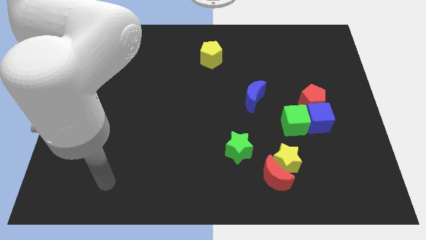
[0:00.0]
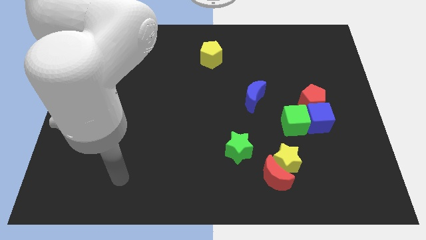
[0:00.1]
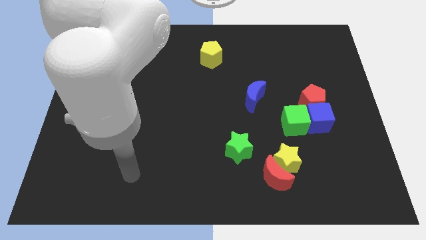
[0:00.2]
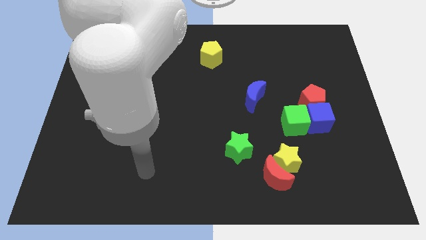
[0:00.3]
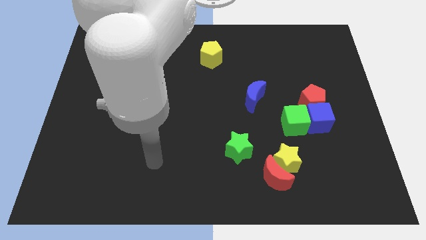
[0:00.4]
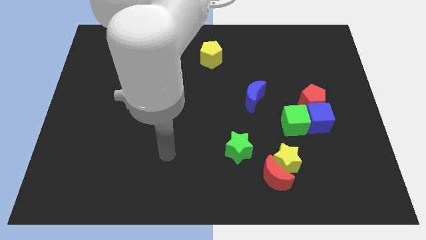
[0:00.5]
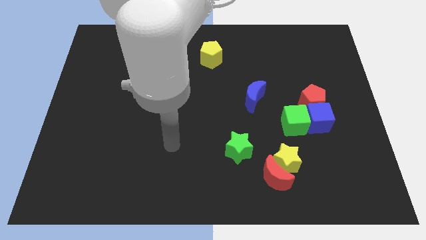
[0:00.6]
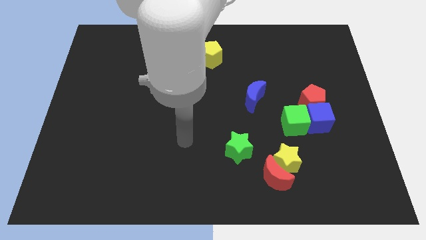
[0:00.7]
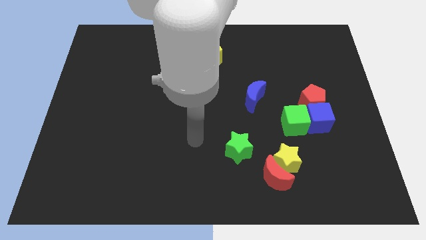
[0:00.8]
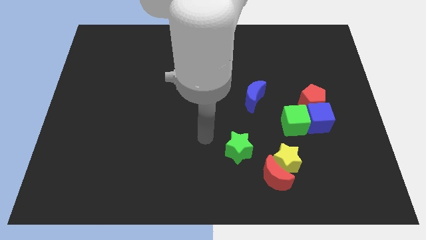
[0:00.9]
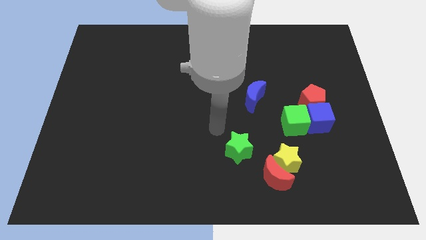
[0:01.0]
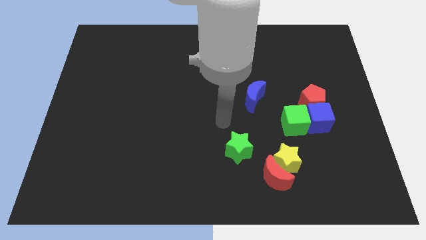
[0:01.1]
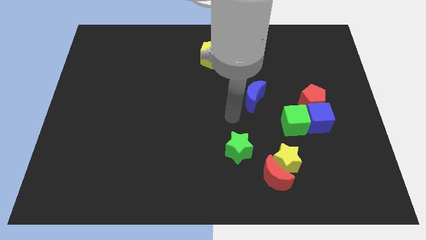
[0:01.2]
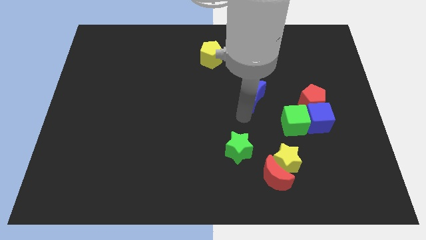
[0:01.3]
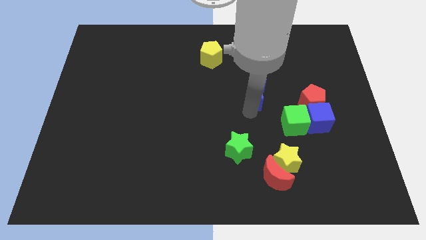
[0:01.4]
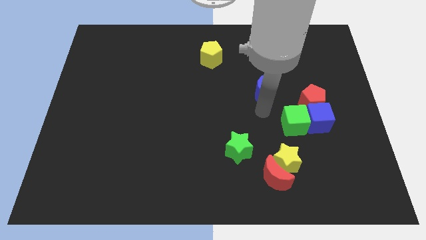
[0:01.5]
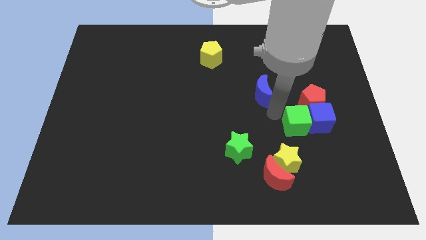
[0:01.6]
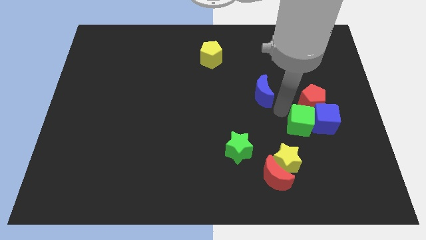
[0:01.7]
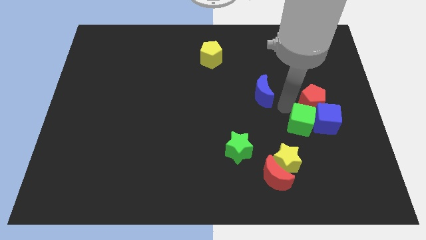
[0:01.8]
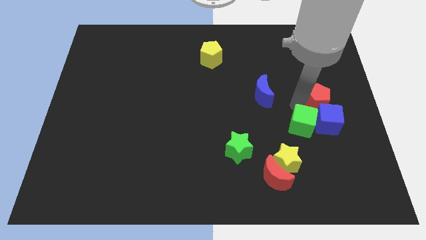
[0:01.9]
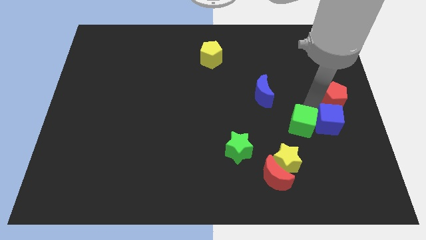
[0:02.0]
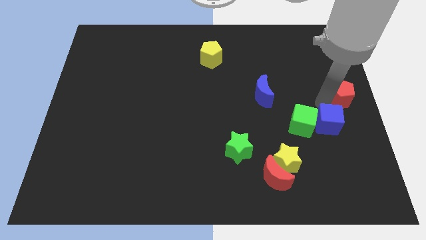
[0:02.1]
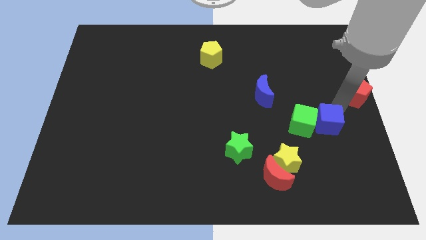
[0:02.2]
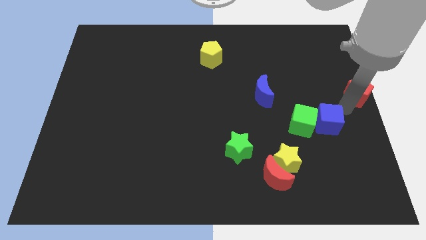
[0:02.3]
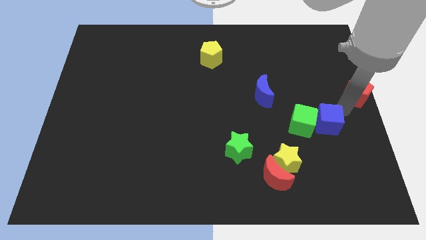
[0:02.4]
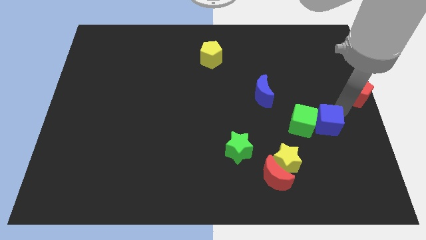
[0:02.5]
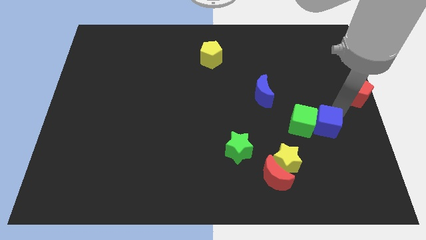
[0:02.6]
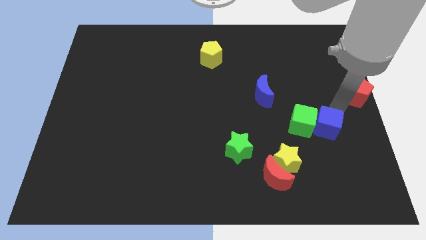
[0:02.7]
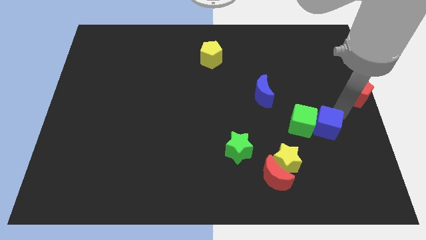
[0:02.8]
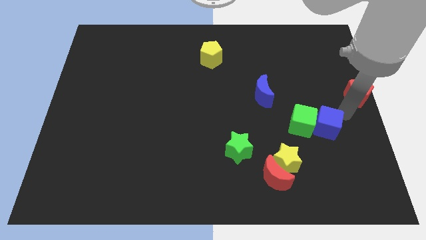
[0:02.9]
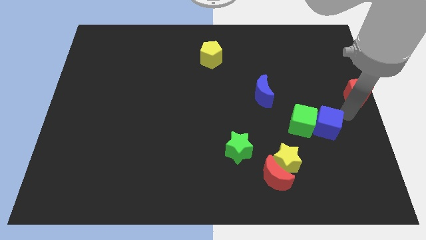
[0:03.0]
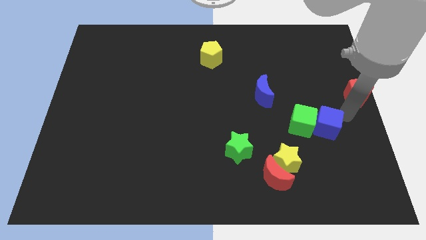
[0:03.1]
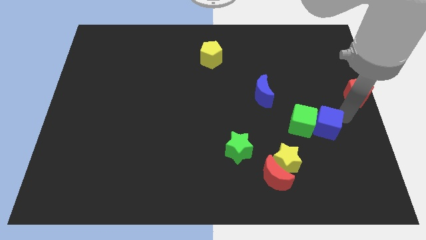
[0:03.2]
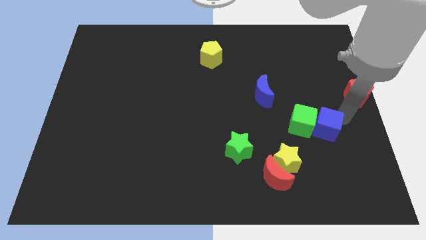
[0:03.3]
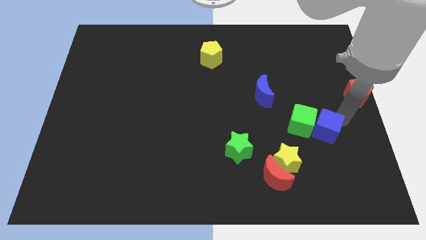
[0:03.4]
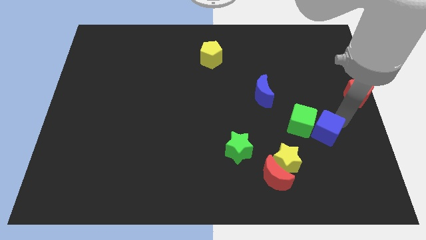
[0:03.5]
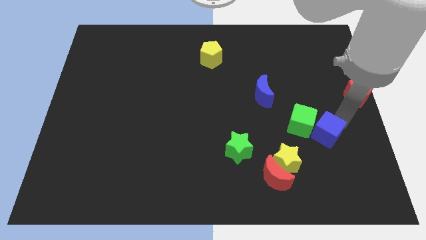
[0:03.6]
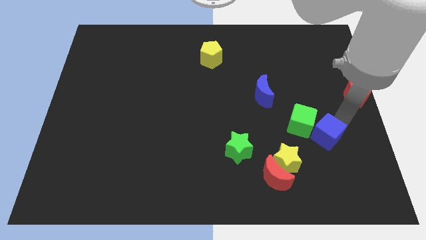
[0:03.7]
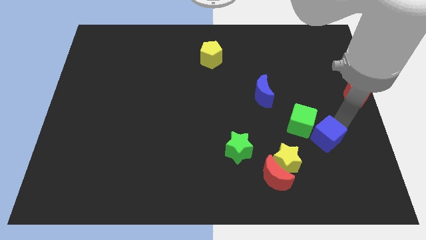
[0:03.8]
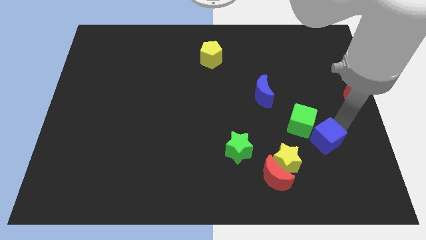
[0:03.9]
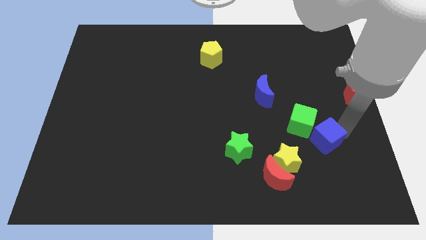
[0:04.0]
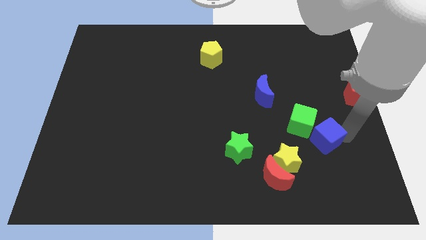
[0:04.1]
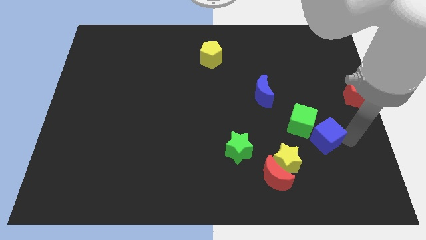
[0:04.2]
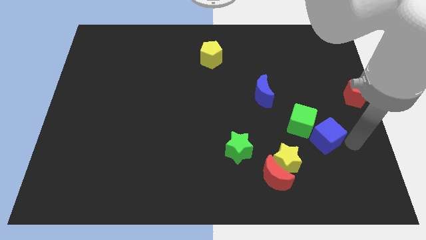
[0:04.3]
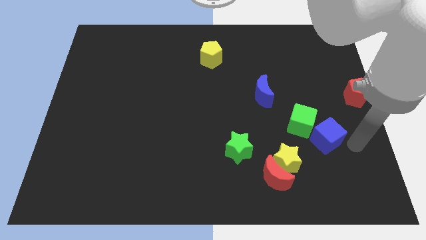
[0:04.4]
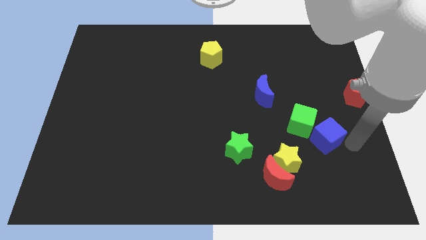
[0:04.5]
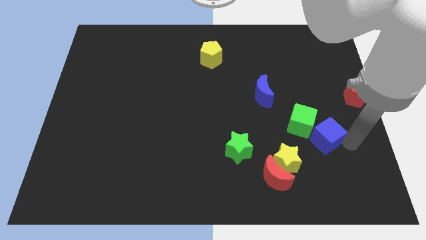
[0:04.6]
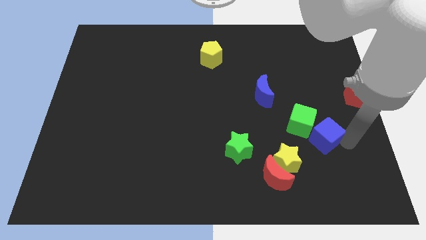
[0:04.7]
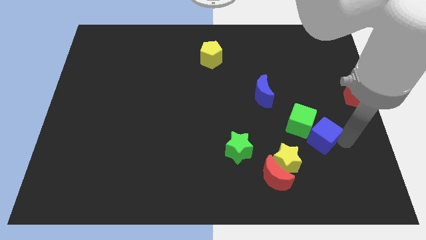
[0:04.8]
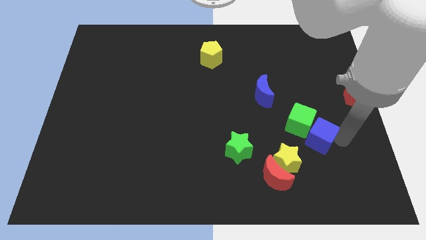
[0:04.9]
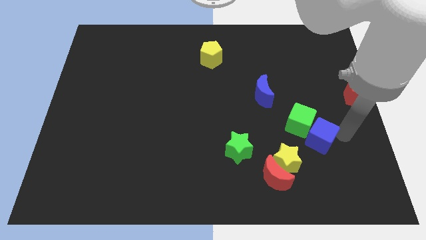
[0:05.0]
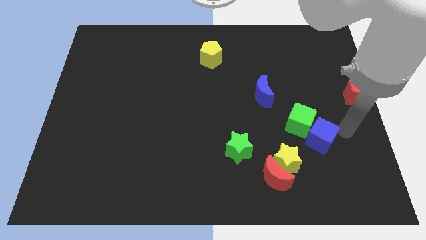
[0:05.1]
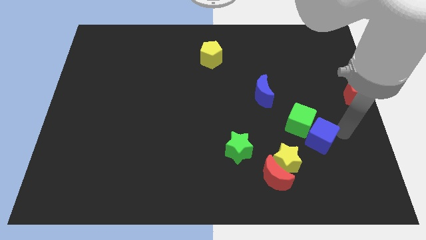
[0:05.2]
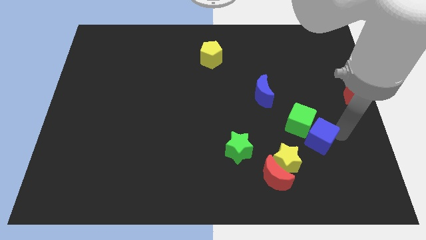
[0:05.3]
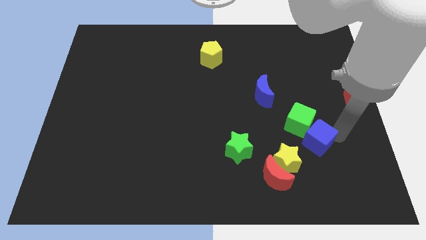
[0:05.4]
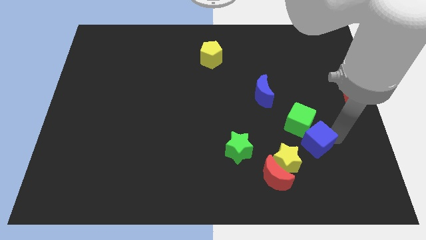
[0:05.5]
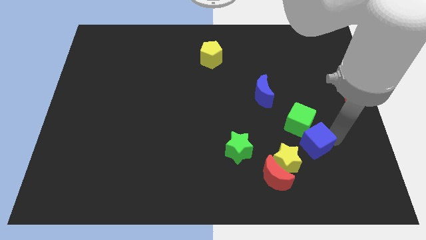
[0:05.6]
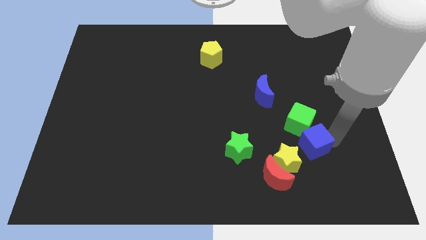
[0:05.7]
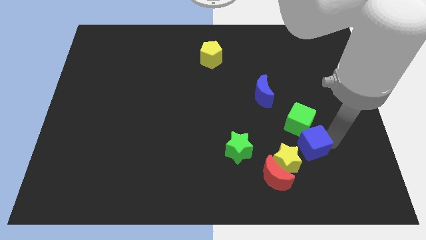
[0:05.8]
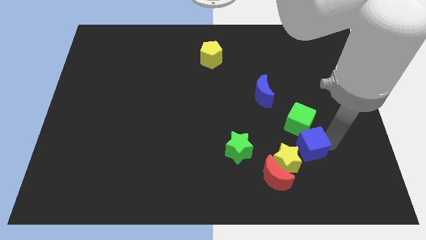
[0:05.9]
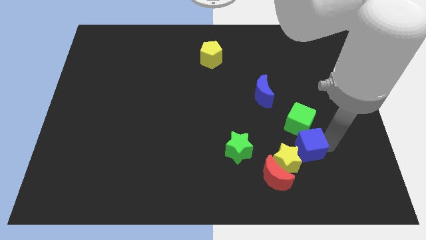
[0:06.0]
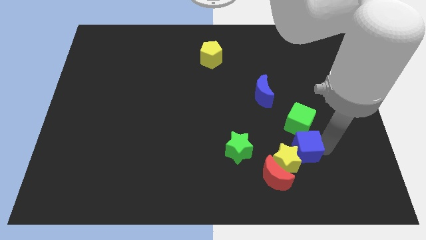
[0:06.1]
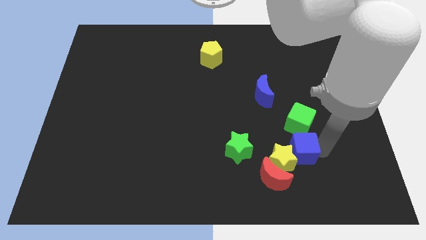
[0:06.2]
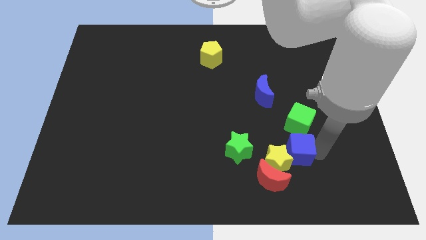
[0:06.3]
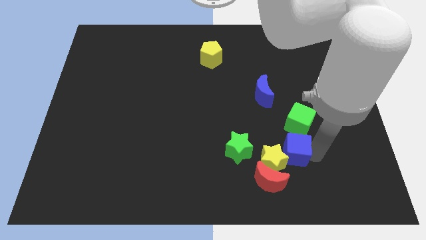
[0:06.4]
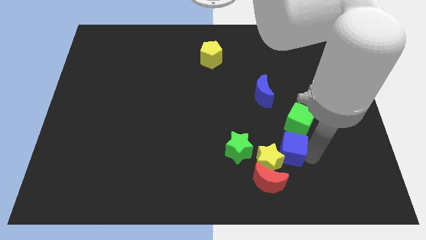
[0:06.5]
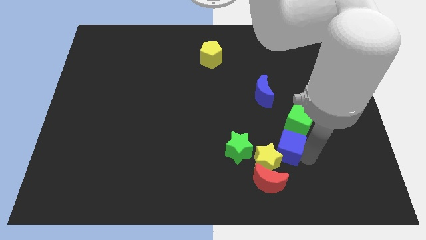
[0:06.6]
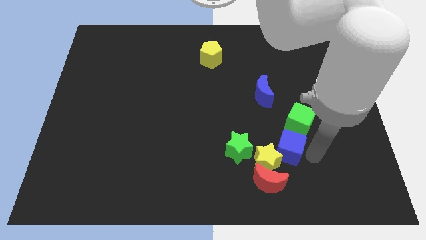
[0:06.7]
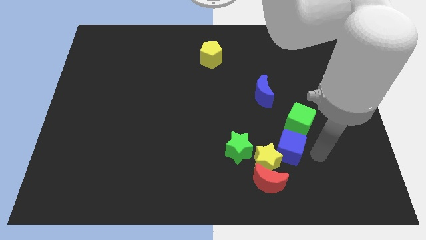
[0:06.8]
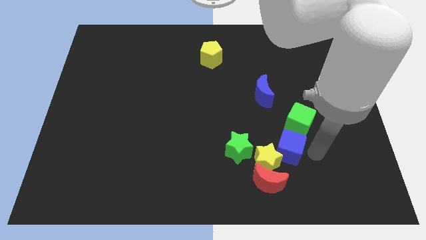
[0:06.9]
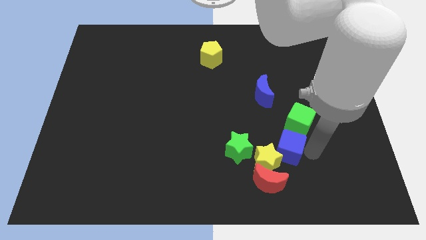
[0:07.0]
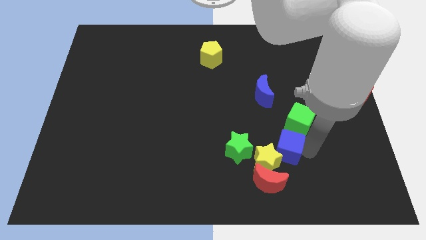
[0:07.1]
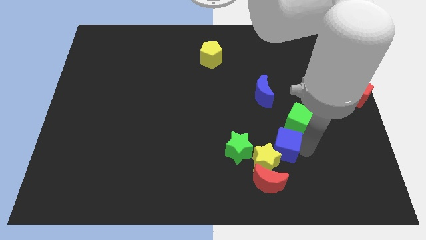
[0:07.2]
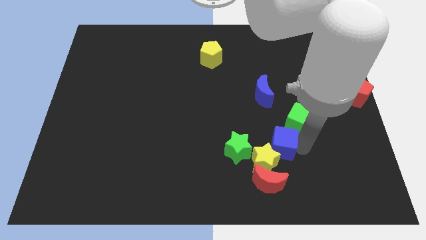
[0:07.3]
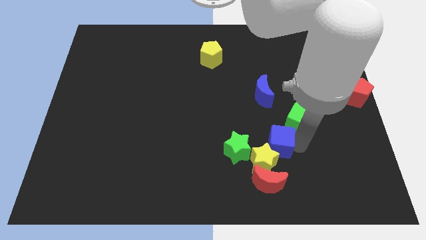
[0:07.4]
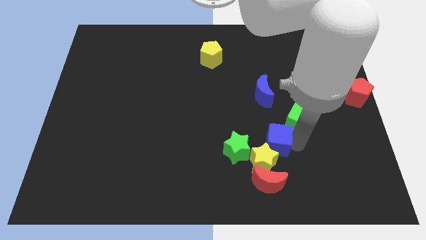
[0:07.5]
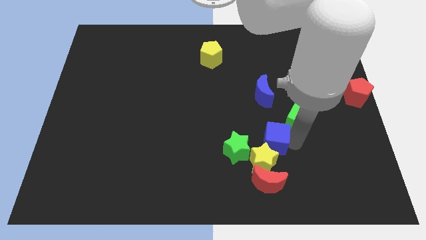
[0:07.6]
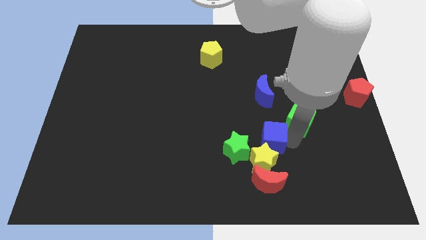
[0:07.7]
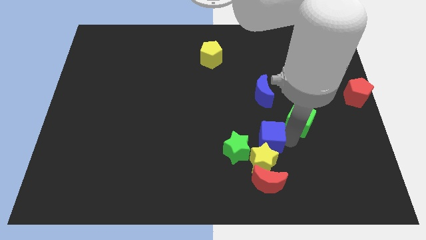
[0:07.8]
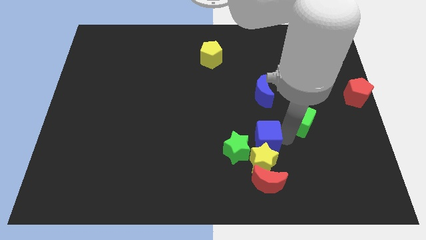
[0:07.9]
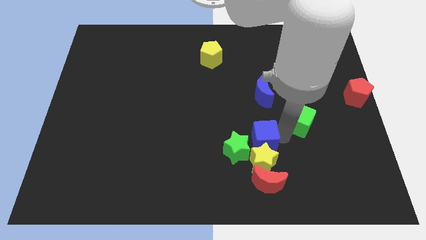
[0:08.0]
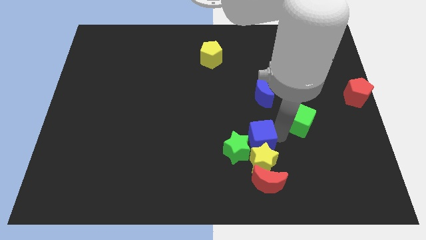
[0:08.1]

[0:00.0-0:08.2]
put the blue cube towards the green star
